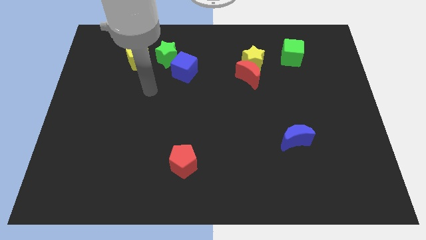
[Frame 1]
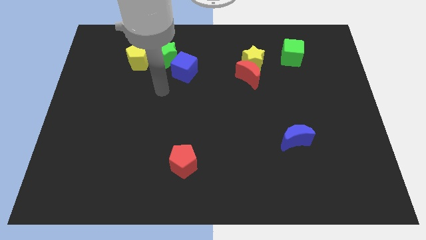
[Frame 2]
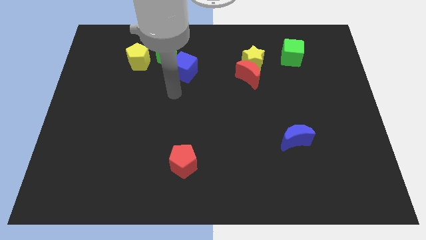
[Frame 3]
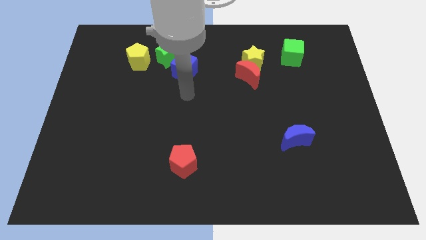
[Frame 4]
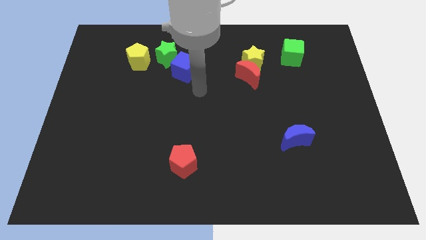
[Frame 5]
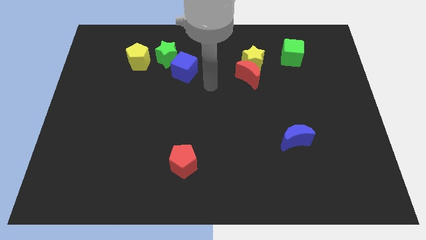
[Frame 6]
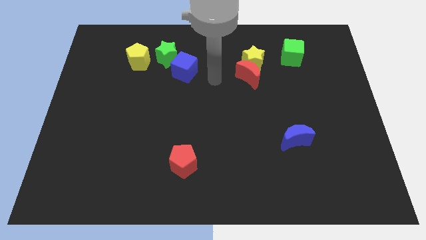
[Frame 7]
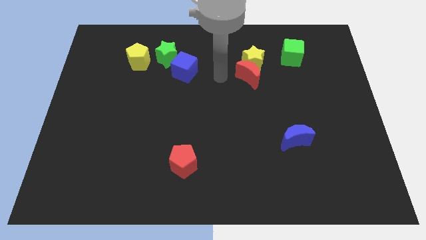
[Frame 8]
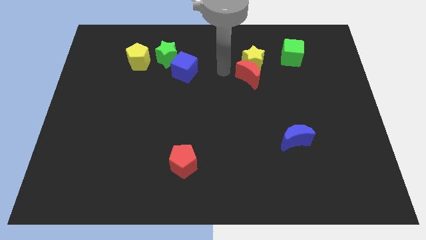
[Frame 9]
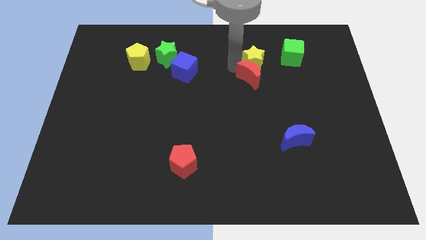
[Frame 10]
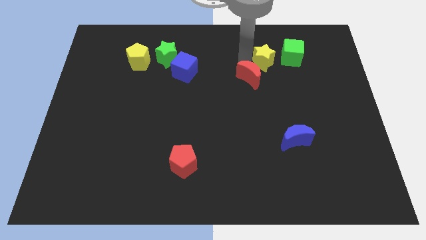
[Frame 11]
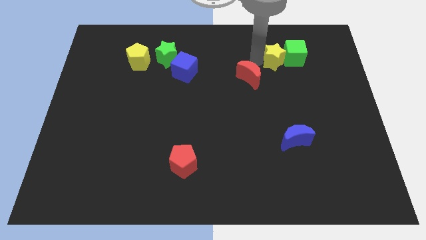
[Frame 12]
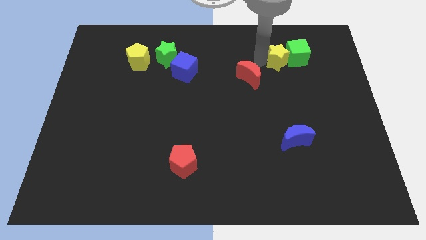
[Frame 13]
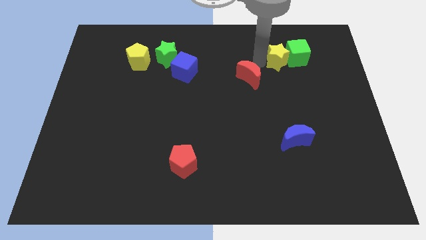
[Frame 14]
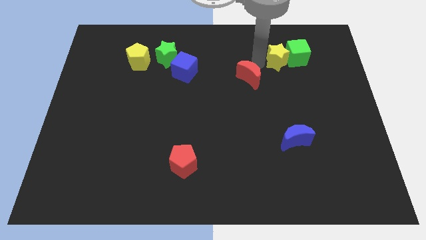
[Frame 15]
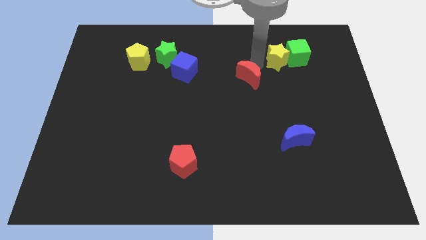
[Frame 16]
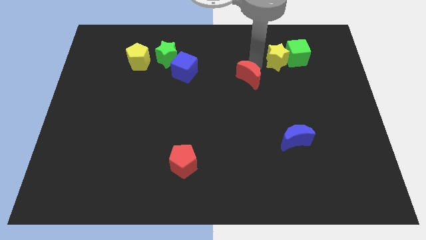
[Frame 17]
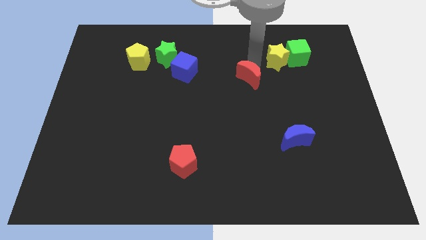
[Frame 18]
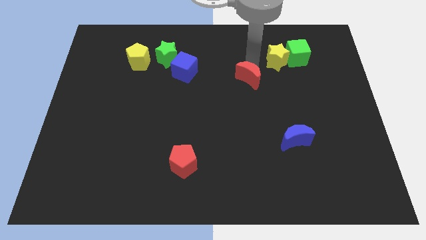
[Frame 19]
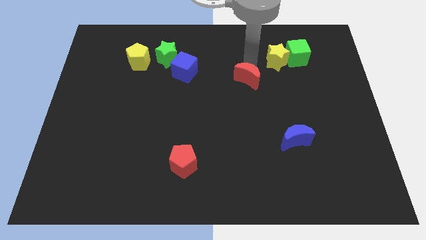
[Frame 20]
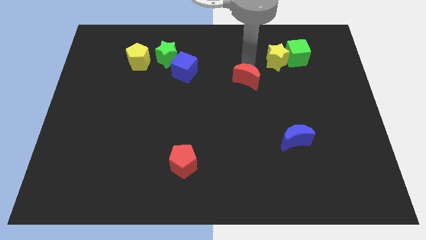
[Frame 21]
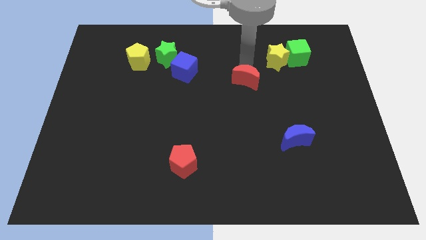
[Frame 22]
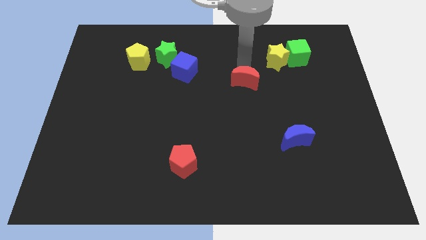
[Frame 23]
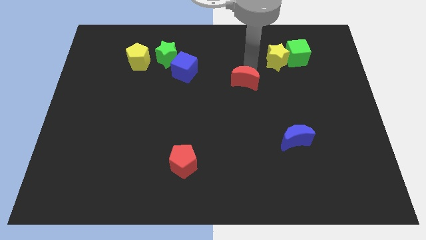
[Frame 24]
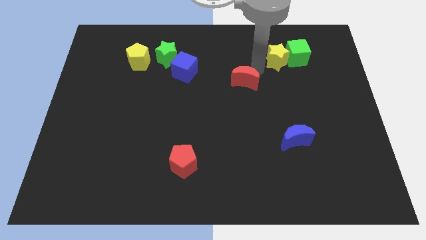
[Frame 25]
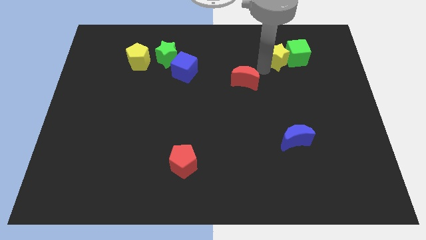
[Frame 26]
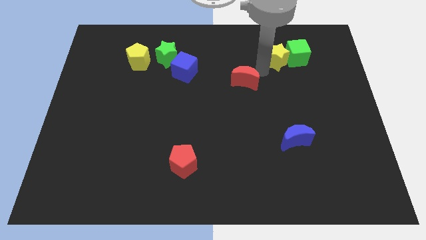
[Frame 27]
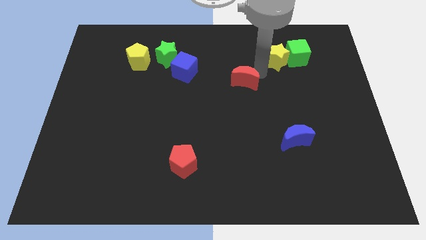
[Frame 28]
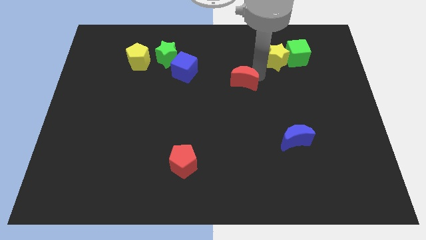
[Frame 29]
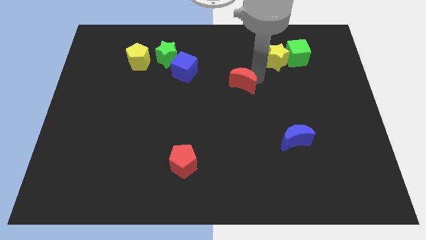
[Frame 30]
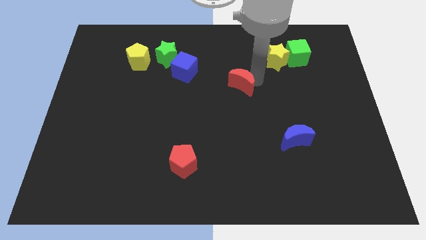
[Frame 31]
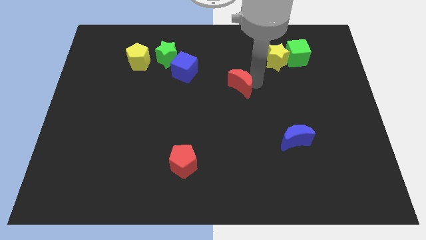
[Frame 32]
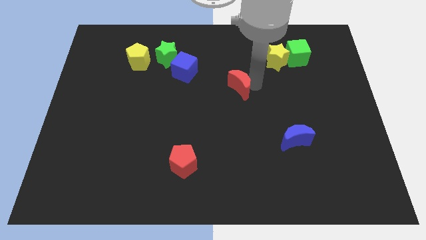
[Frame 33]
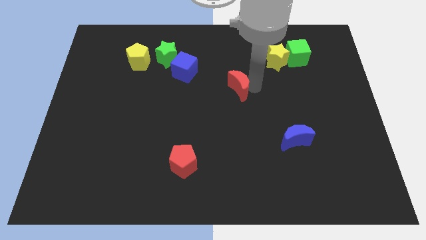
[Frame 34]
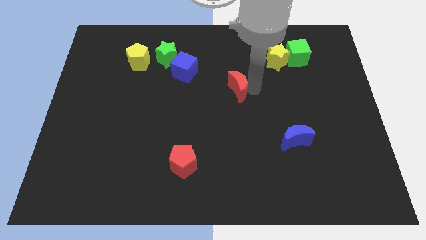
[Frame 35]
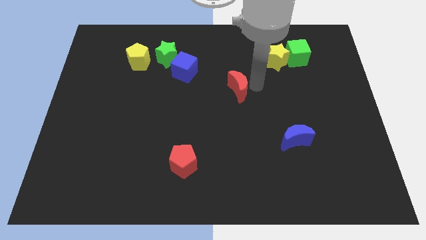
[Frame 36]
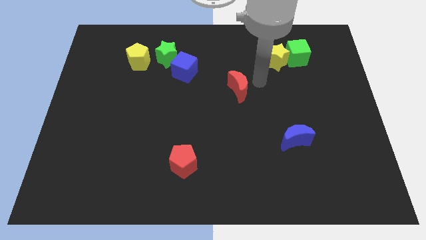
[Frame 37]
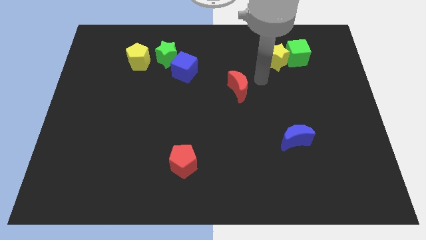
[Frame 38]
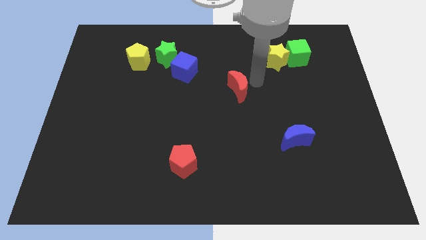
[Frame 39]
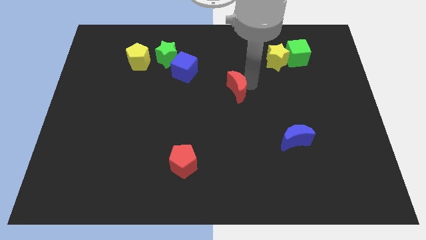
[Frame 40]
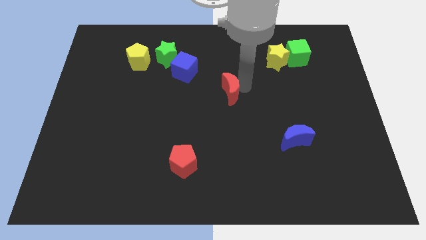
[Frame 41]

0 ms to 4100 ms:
push the red moon down and to the left a bit

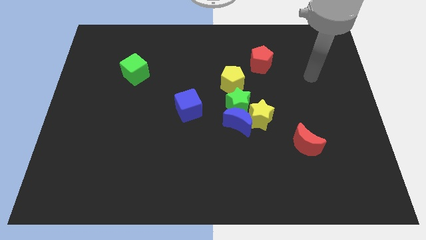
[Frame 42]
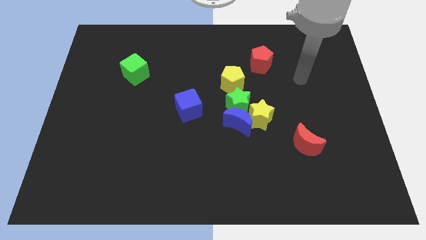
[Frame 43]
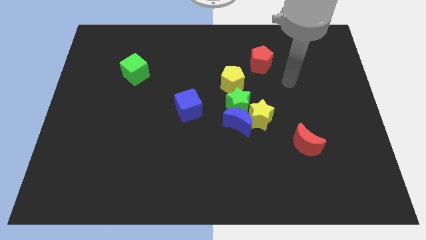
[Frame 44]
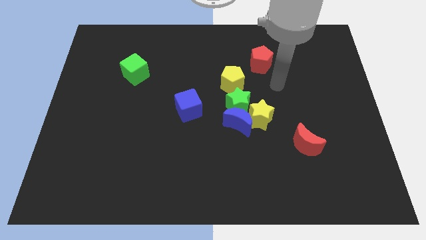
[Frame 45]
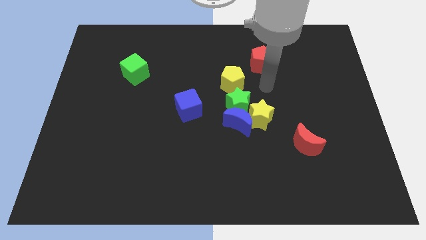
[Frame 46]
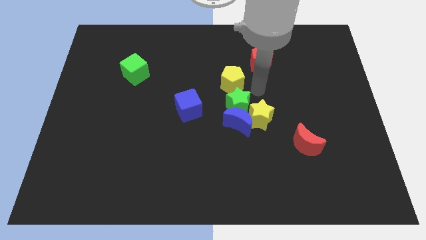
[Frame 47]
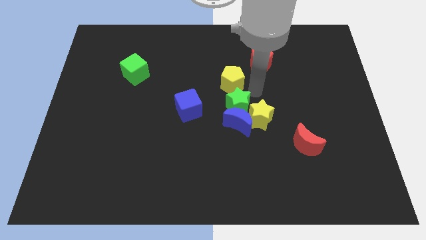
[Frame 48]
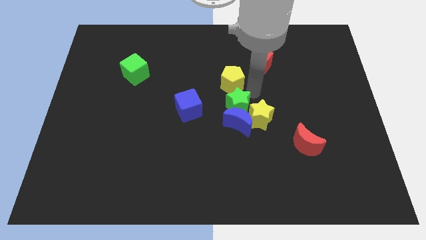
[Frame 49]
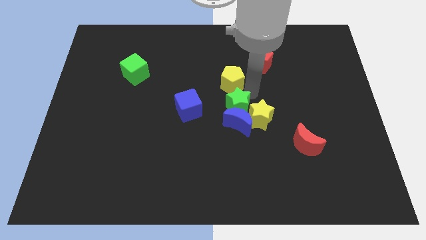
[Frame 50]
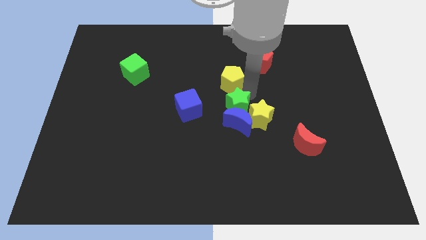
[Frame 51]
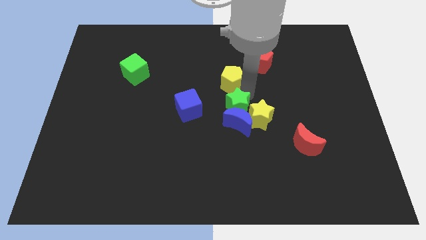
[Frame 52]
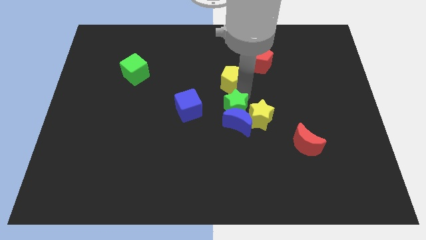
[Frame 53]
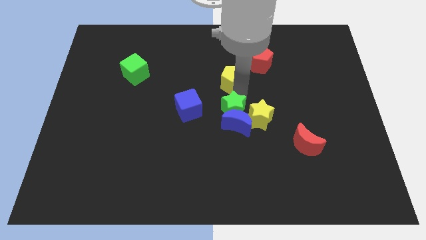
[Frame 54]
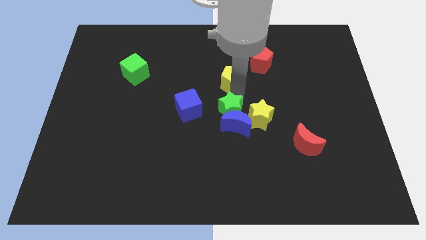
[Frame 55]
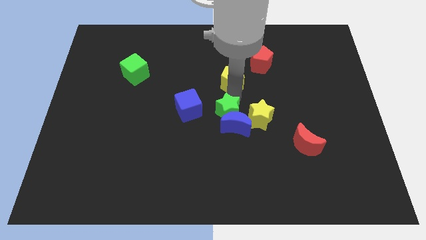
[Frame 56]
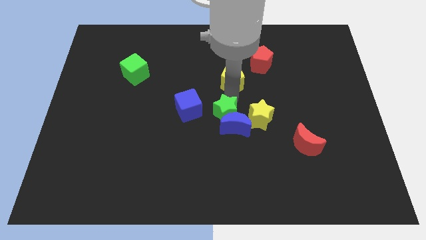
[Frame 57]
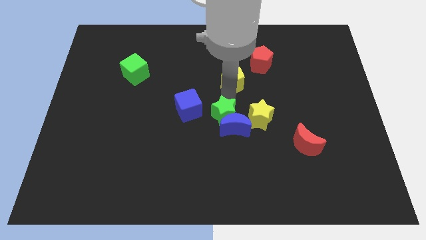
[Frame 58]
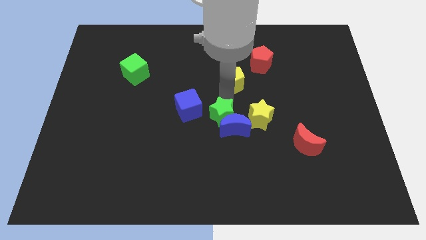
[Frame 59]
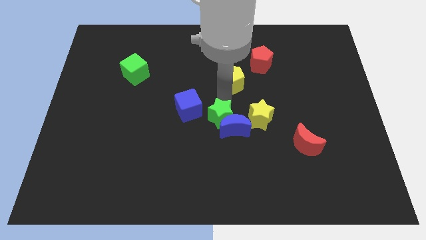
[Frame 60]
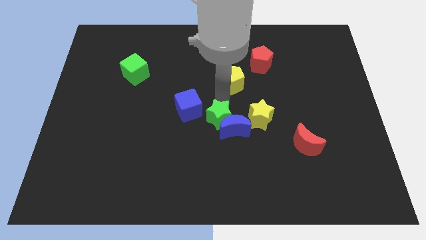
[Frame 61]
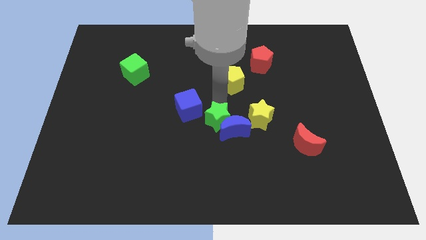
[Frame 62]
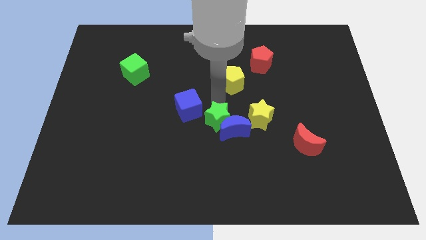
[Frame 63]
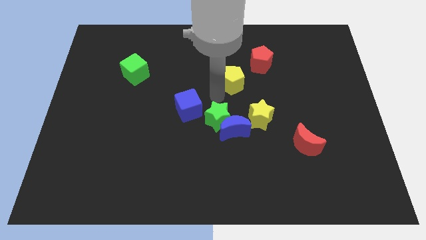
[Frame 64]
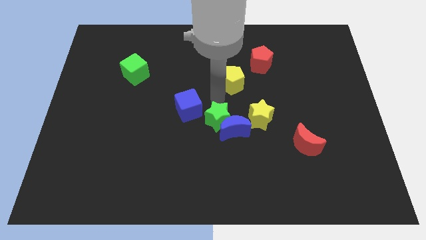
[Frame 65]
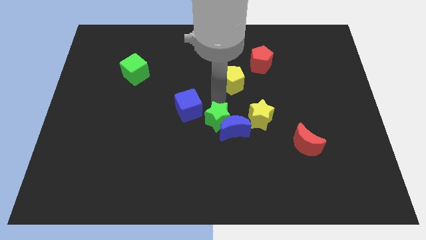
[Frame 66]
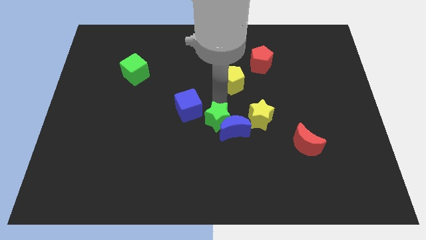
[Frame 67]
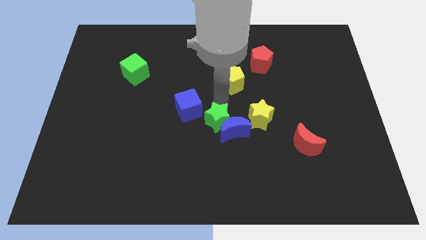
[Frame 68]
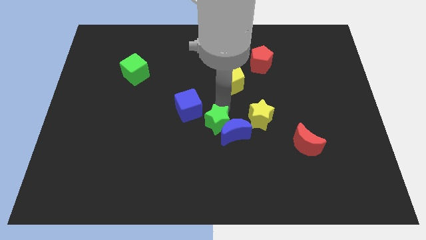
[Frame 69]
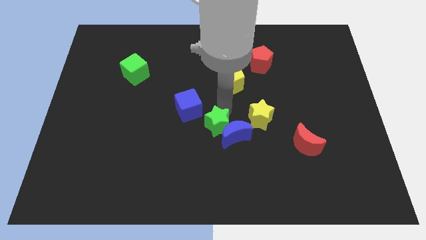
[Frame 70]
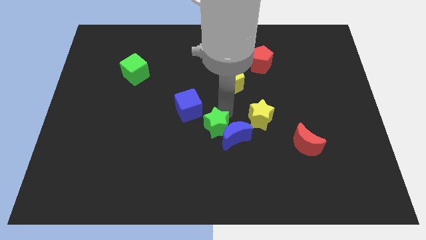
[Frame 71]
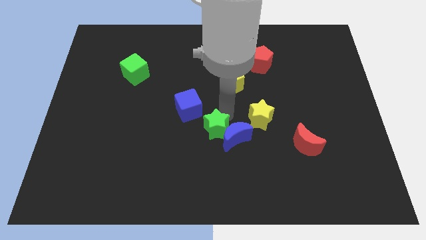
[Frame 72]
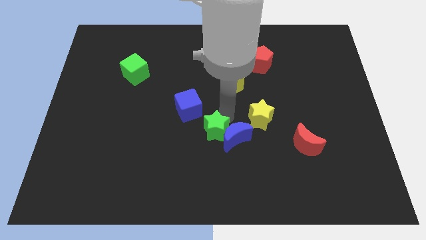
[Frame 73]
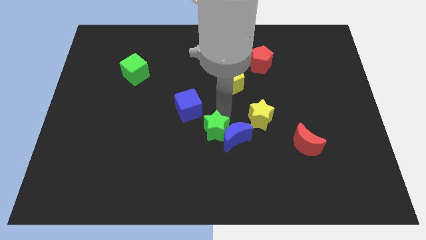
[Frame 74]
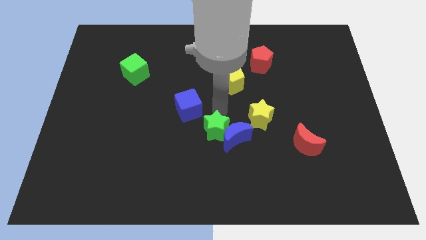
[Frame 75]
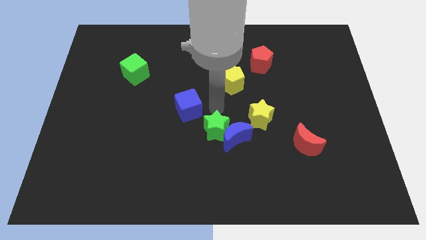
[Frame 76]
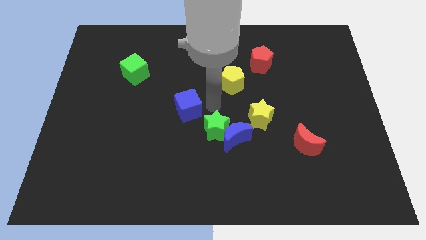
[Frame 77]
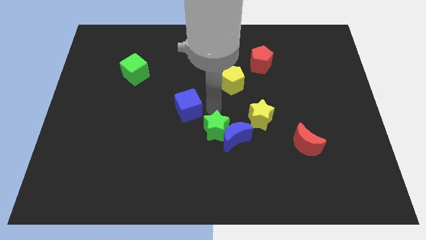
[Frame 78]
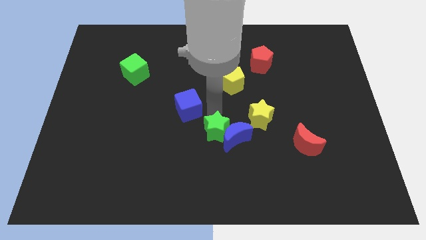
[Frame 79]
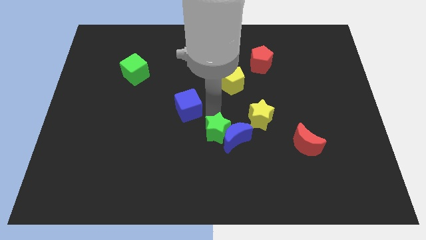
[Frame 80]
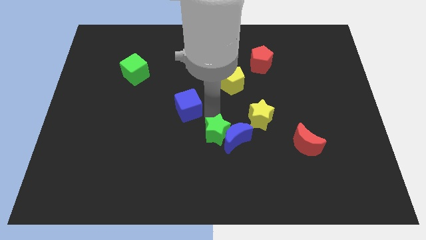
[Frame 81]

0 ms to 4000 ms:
move the green star down slightly
